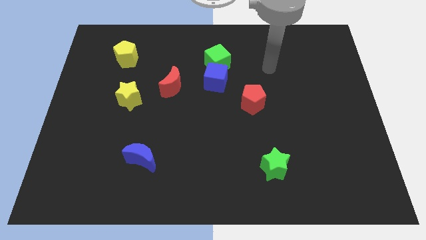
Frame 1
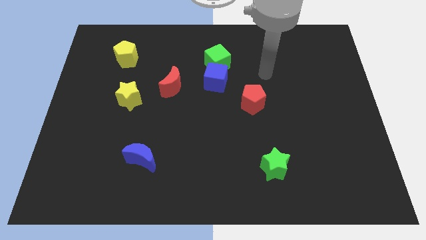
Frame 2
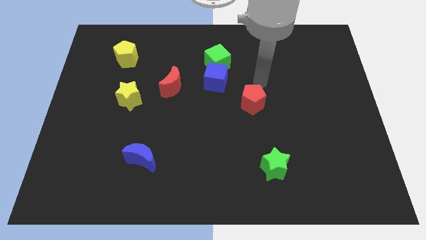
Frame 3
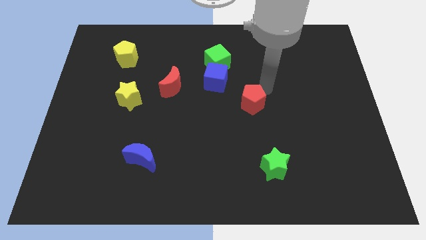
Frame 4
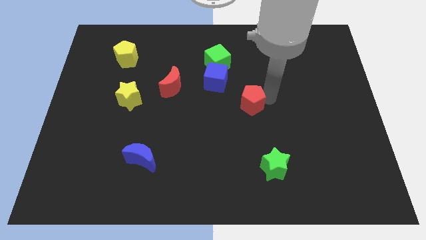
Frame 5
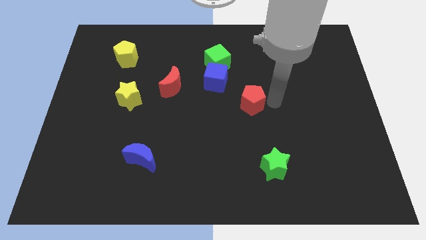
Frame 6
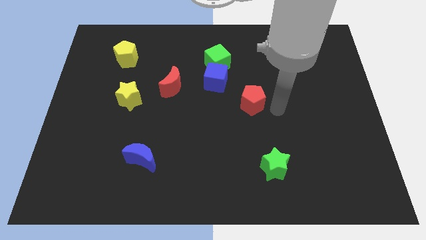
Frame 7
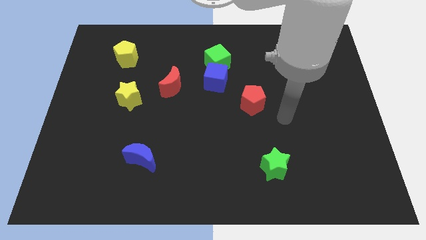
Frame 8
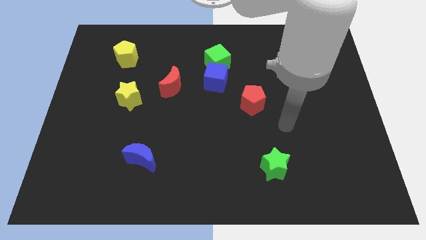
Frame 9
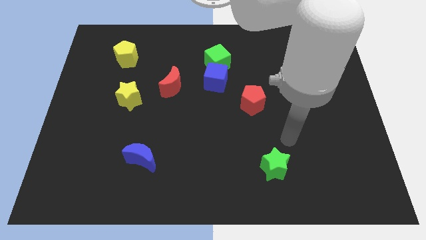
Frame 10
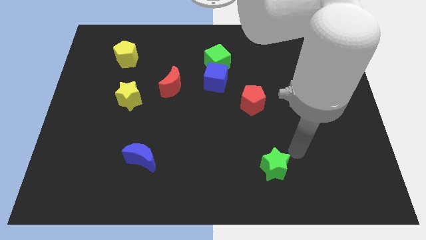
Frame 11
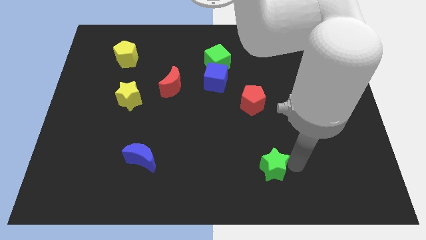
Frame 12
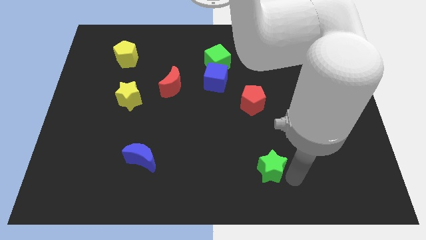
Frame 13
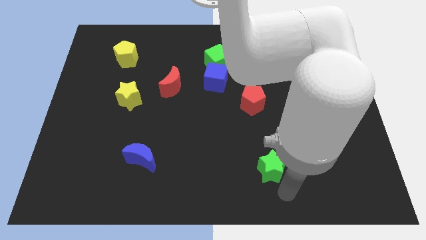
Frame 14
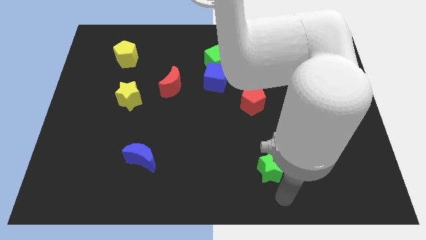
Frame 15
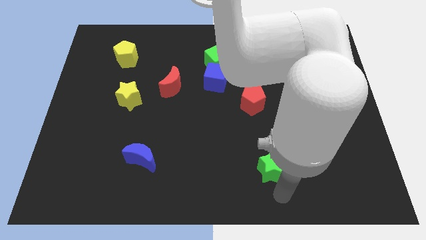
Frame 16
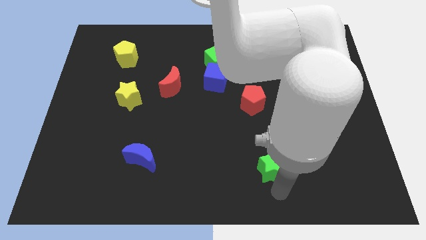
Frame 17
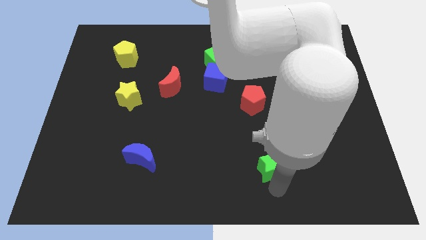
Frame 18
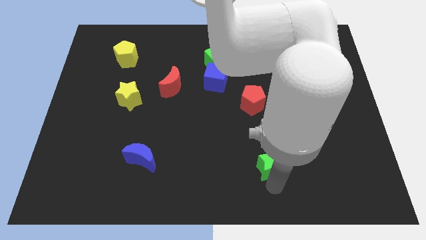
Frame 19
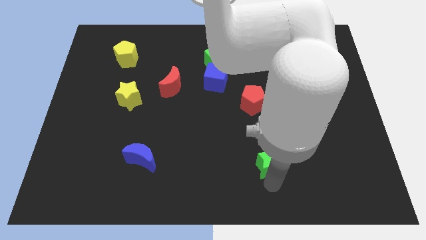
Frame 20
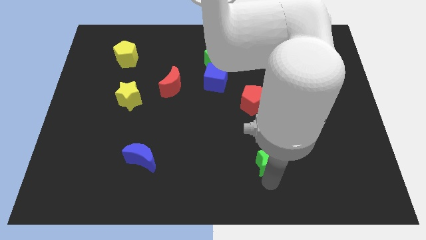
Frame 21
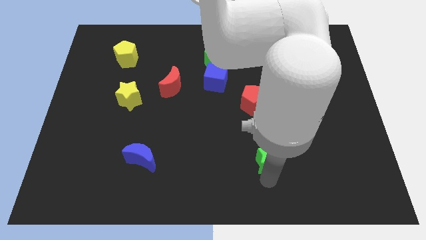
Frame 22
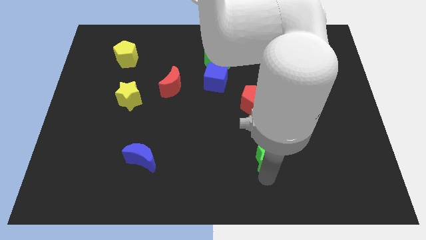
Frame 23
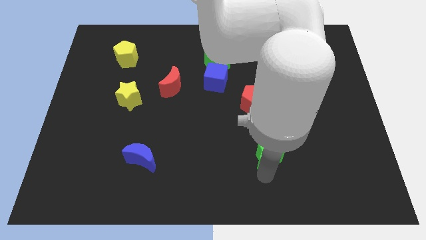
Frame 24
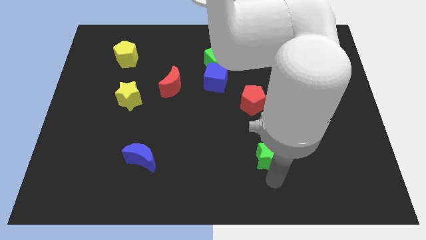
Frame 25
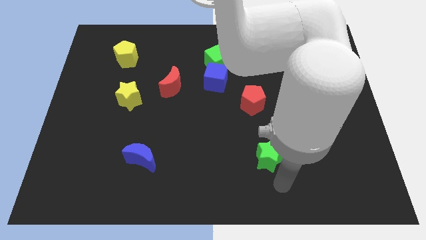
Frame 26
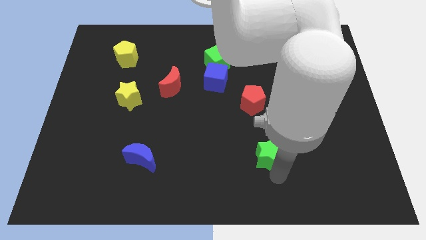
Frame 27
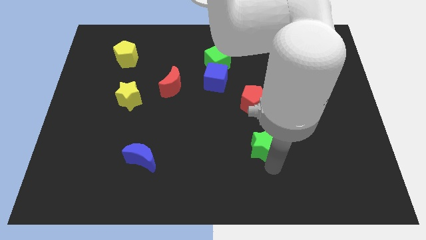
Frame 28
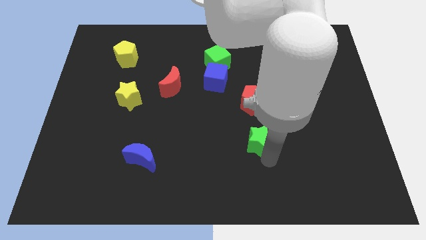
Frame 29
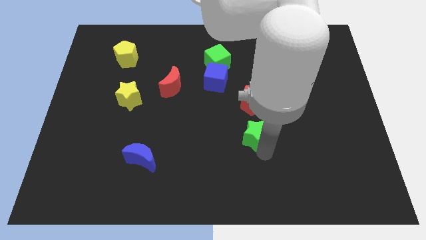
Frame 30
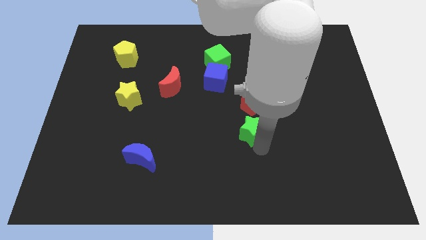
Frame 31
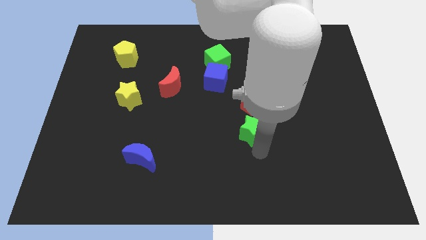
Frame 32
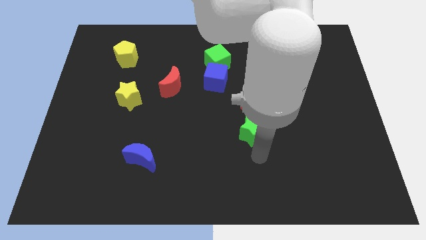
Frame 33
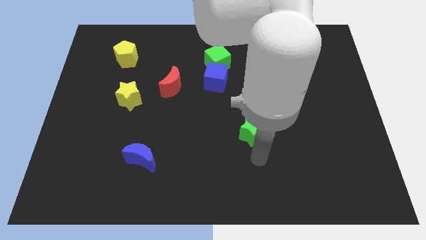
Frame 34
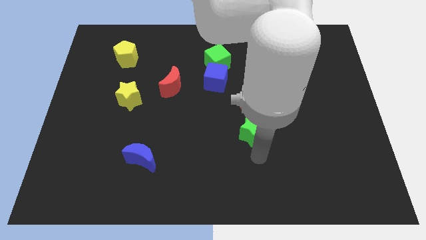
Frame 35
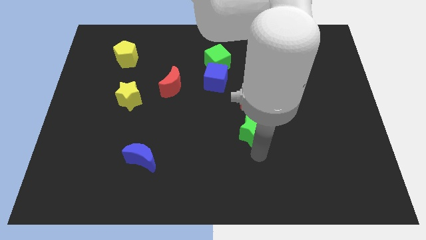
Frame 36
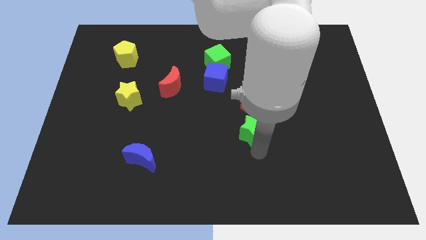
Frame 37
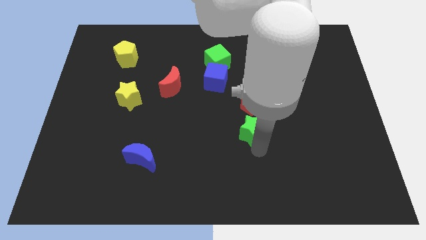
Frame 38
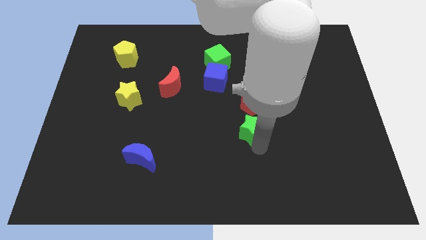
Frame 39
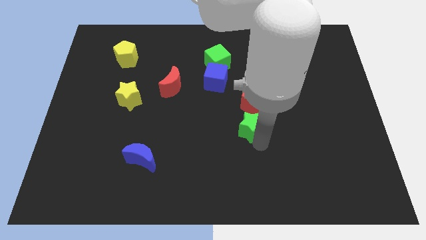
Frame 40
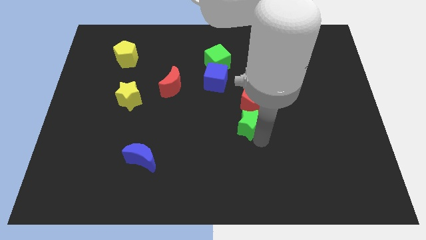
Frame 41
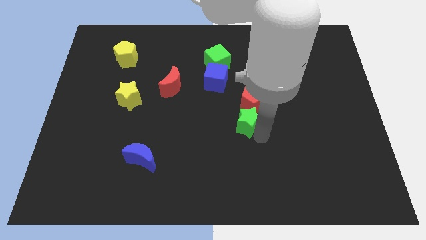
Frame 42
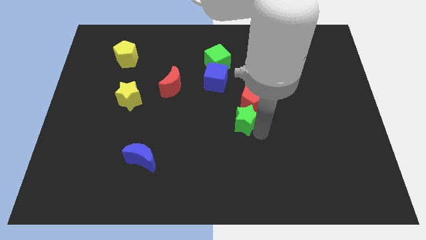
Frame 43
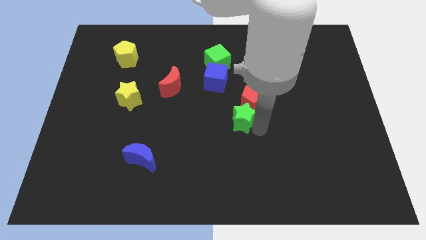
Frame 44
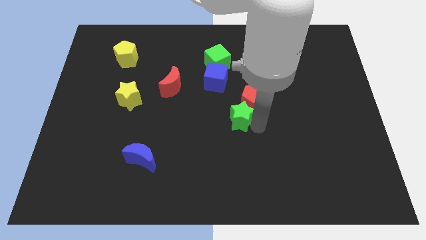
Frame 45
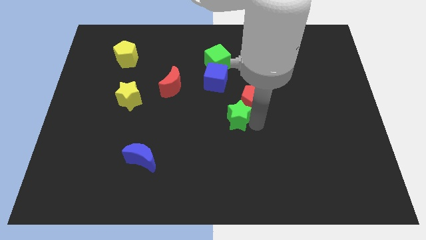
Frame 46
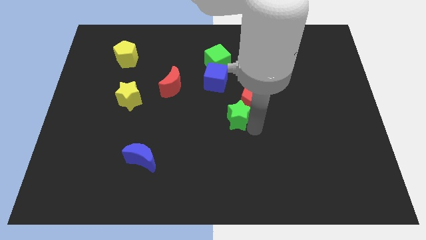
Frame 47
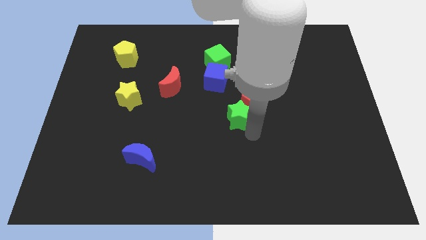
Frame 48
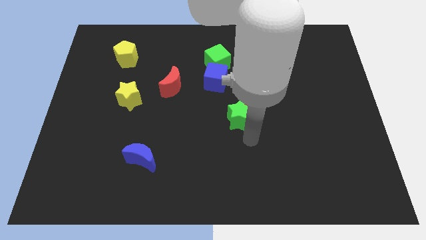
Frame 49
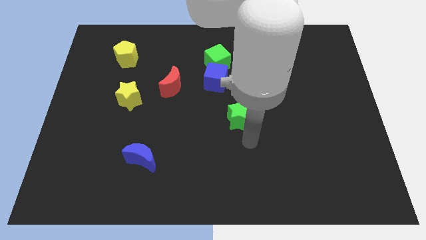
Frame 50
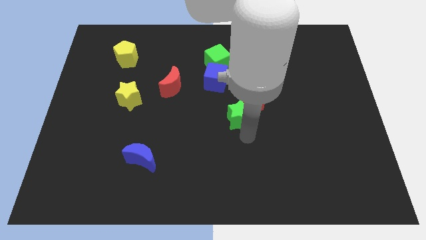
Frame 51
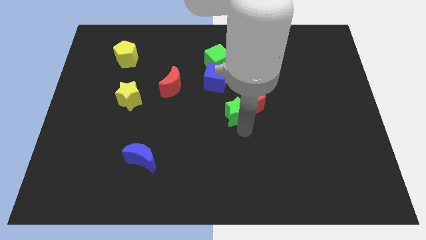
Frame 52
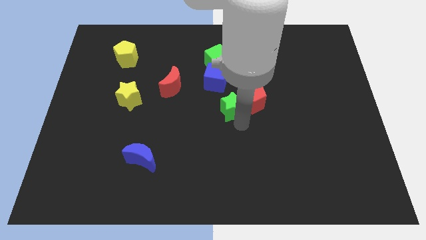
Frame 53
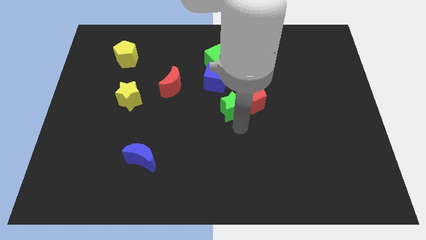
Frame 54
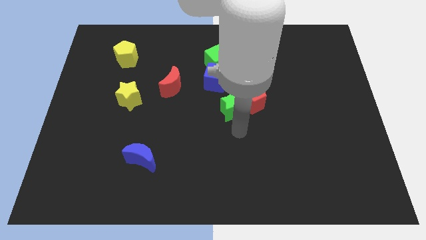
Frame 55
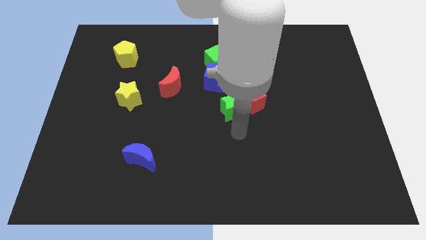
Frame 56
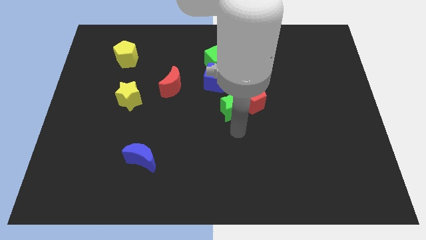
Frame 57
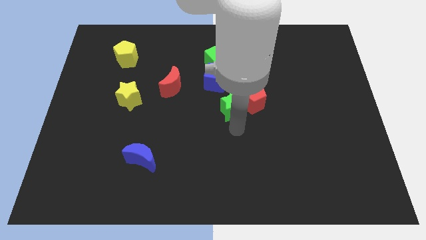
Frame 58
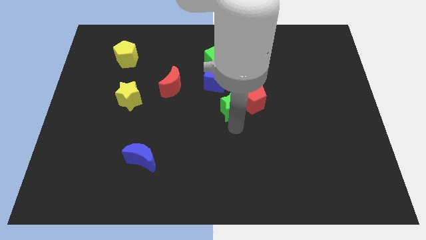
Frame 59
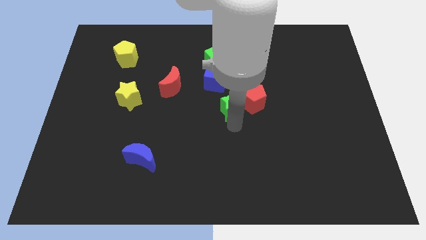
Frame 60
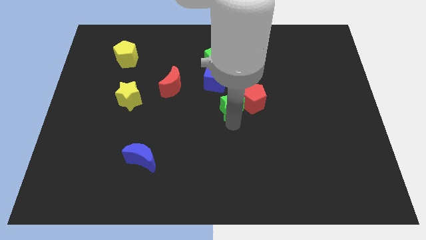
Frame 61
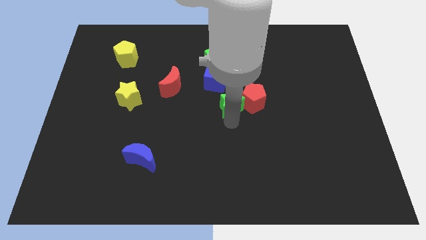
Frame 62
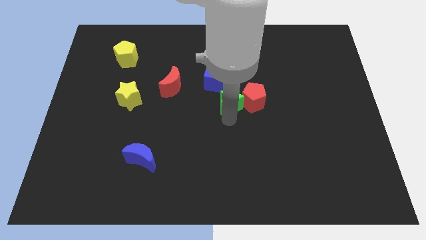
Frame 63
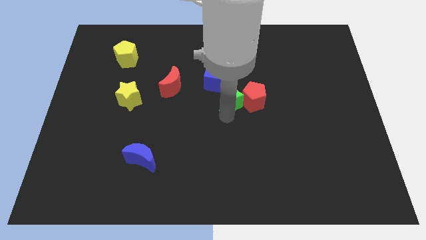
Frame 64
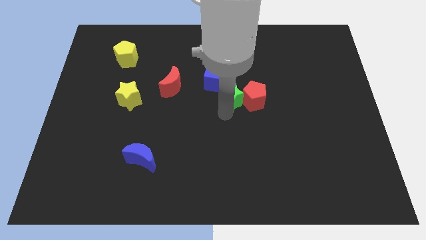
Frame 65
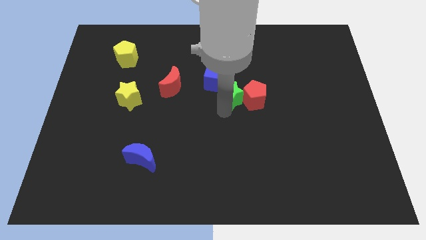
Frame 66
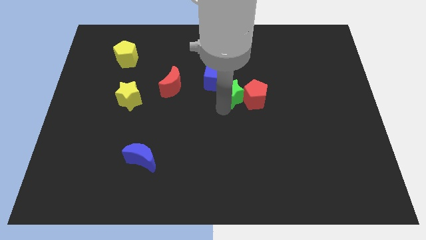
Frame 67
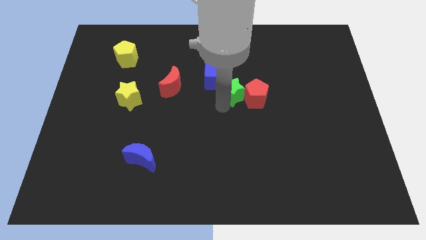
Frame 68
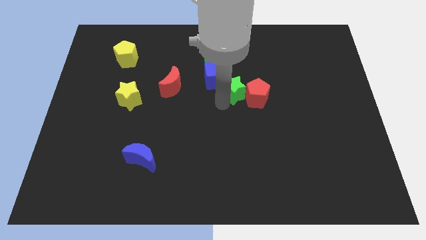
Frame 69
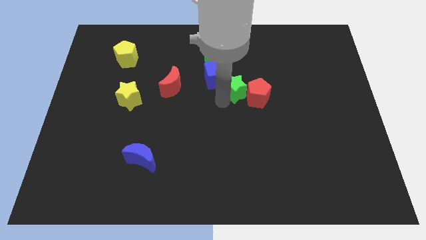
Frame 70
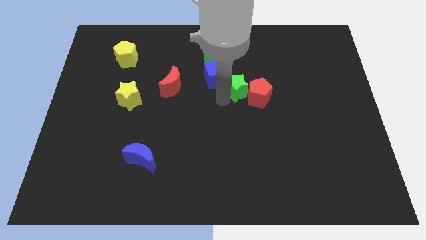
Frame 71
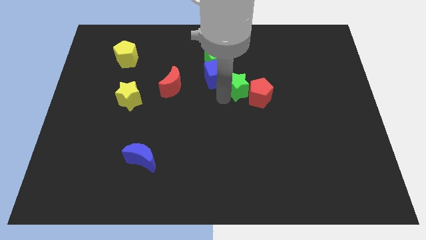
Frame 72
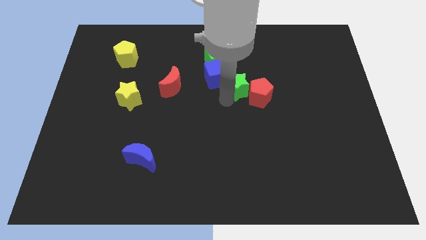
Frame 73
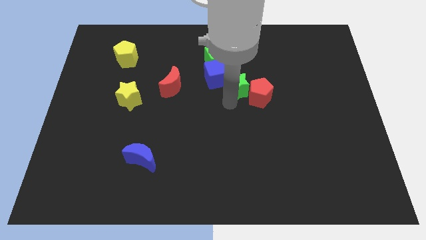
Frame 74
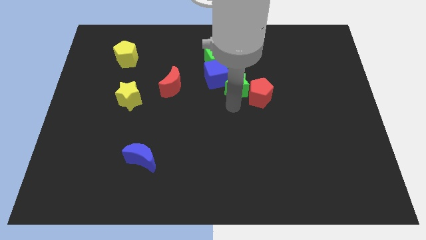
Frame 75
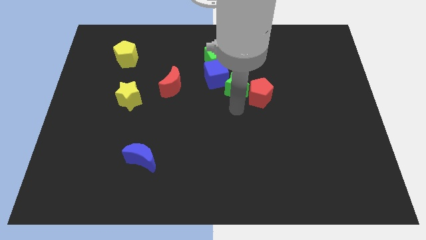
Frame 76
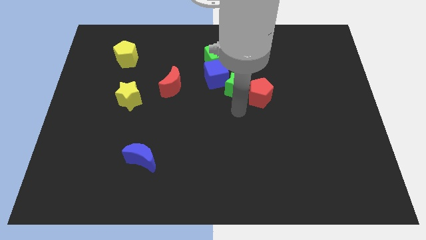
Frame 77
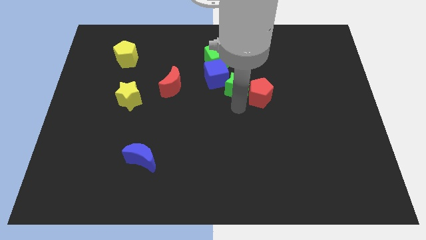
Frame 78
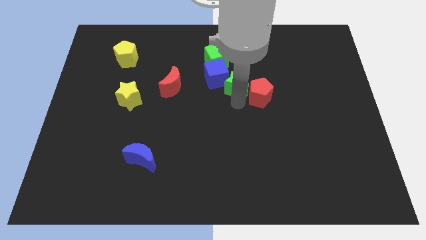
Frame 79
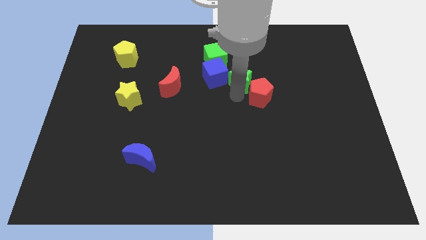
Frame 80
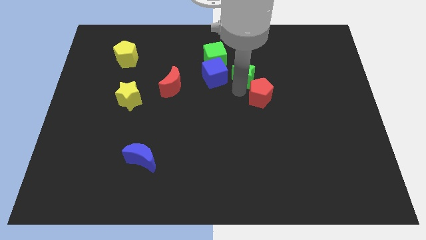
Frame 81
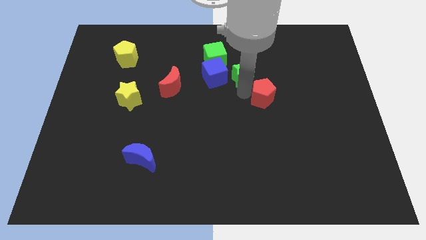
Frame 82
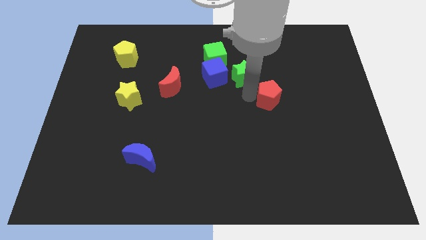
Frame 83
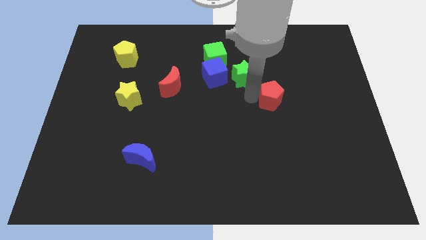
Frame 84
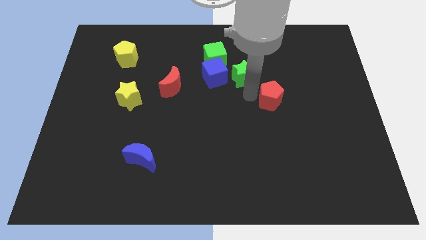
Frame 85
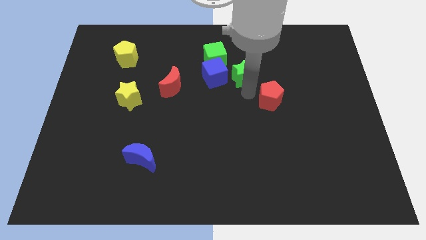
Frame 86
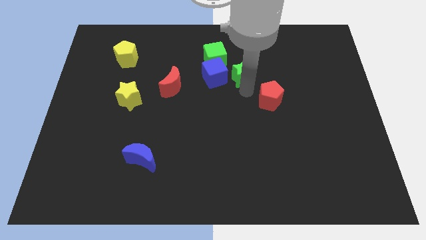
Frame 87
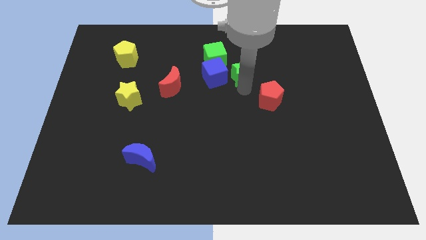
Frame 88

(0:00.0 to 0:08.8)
move the green star to the top right side of the blue cube
